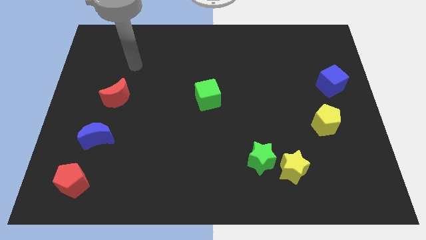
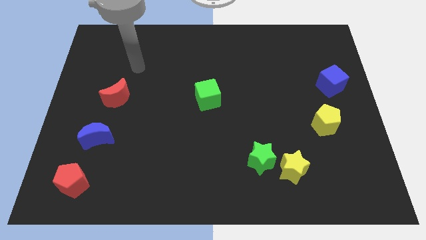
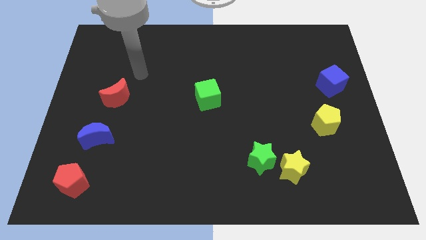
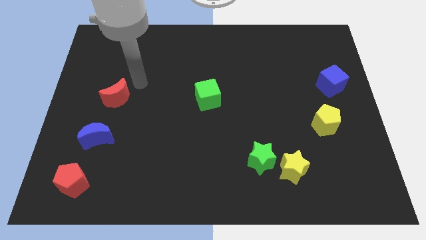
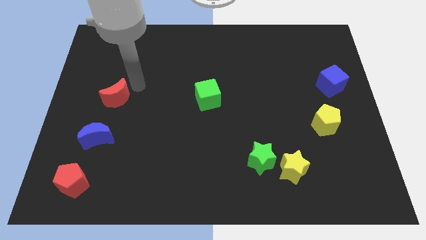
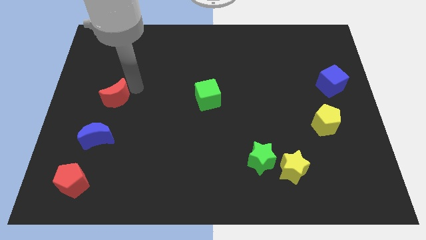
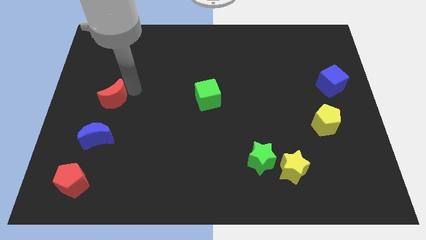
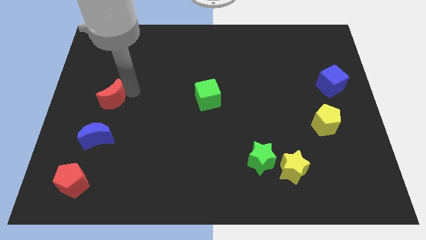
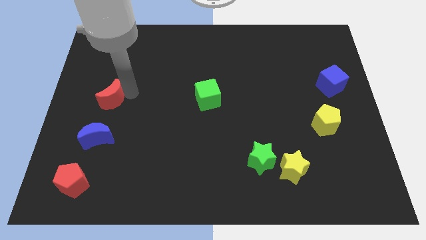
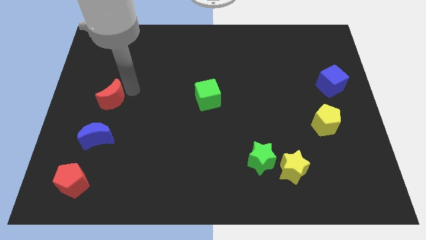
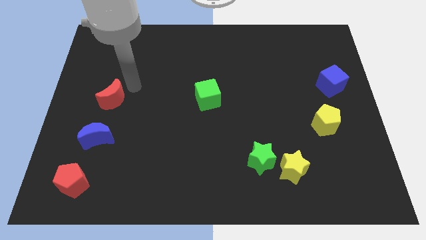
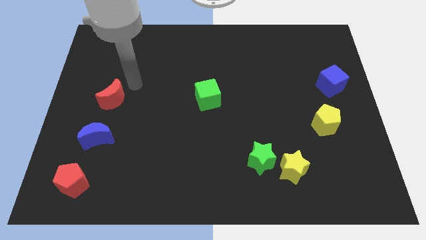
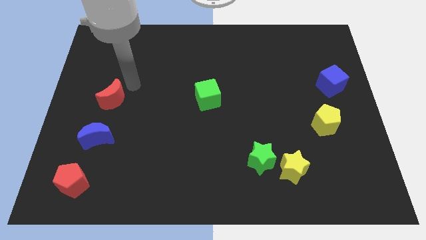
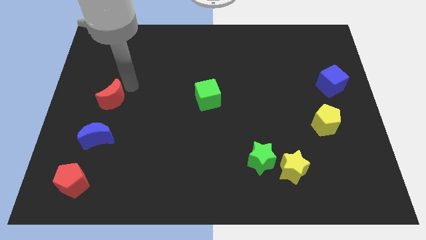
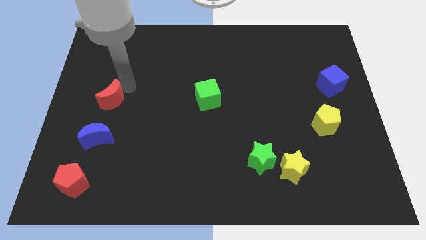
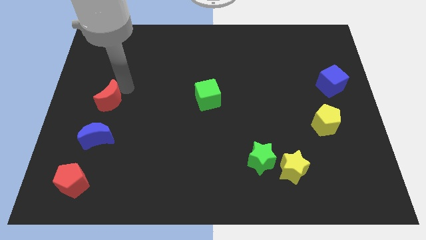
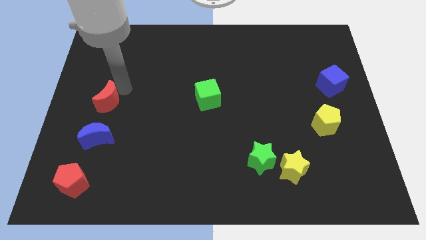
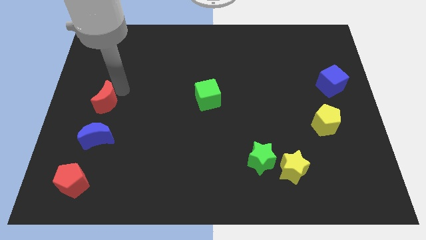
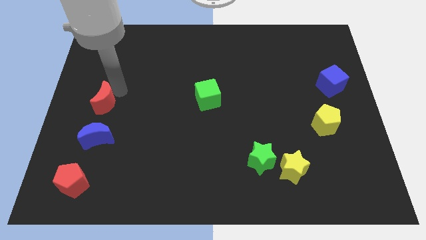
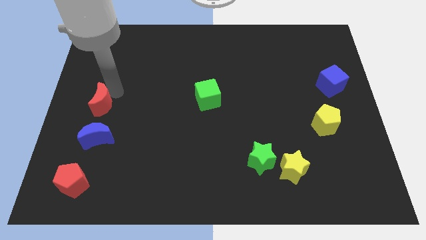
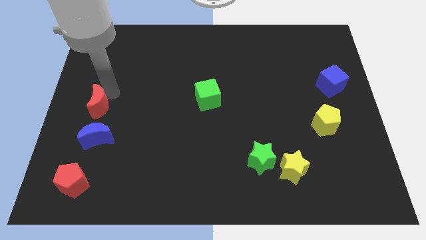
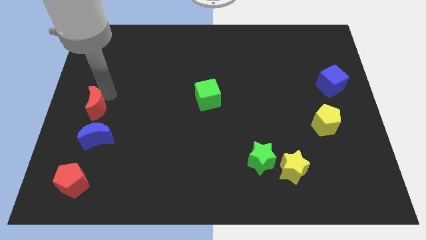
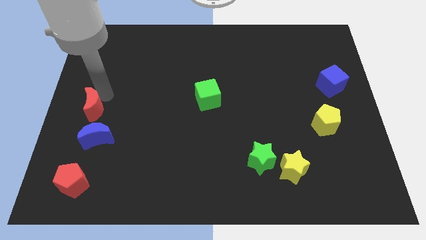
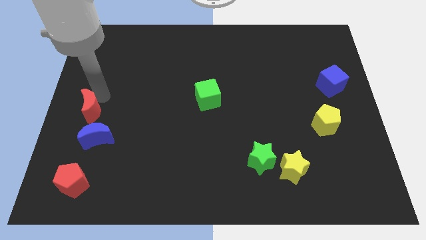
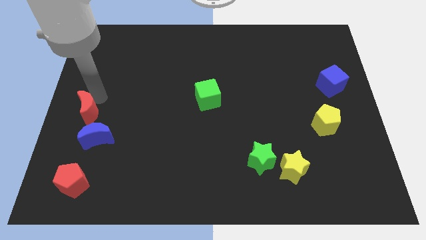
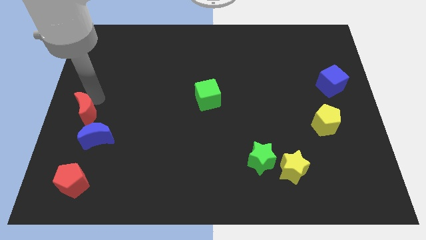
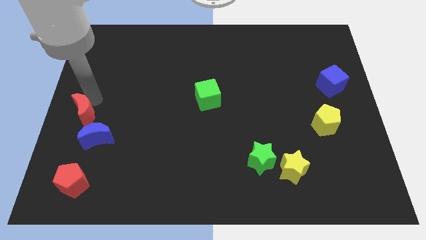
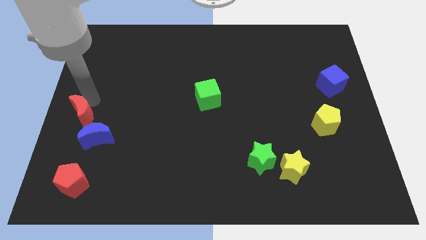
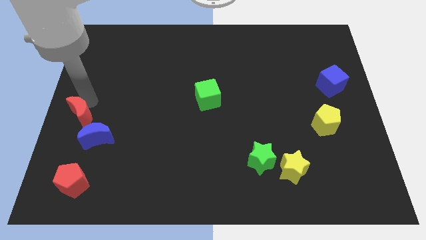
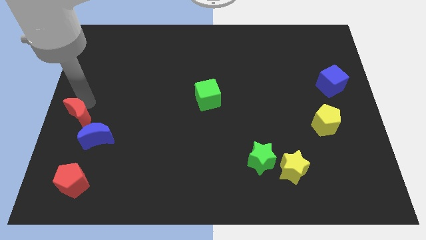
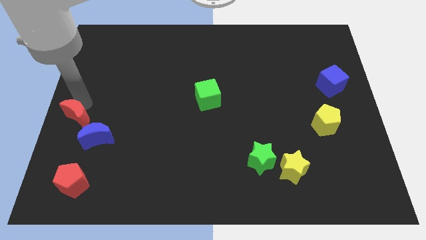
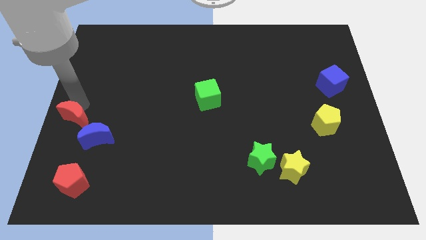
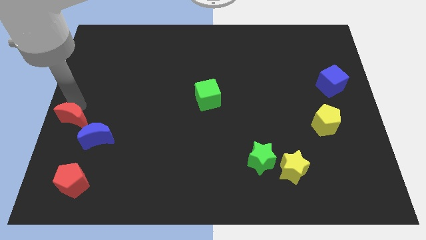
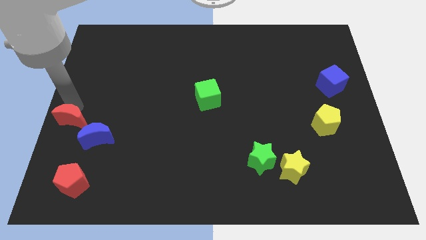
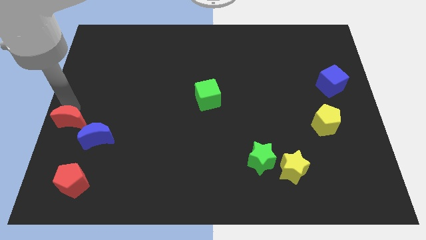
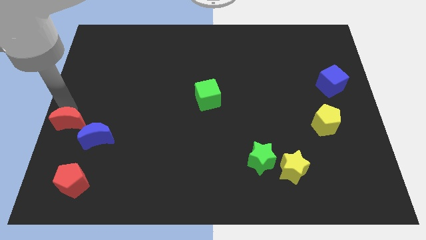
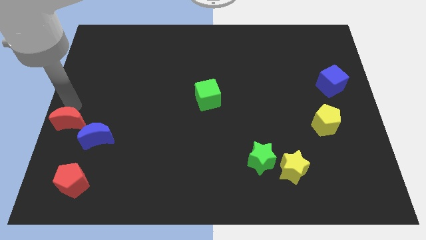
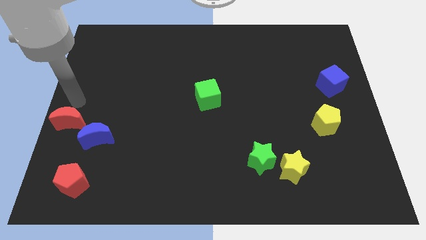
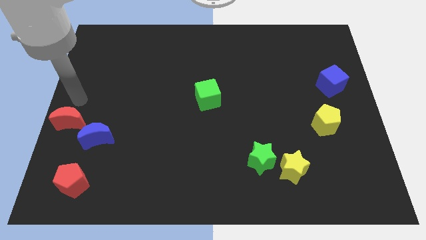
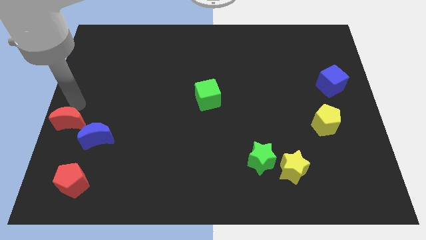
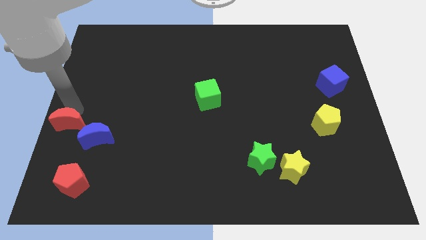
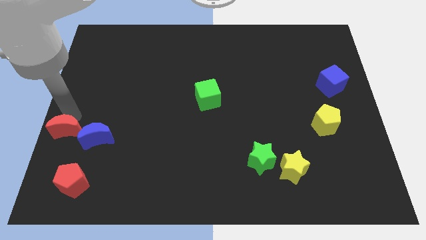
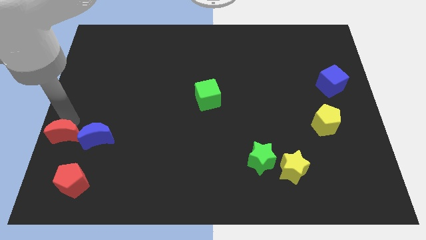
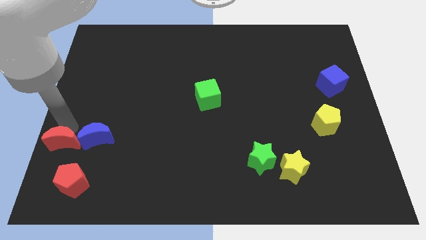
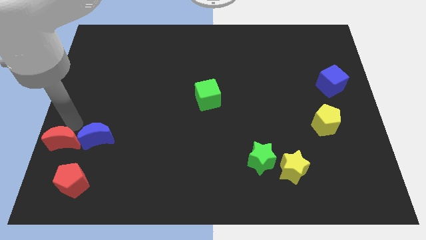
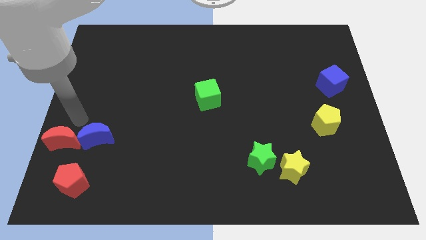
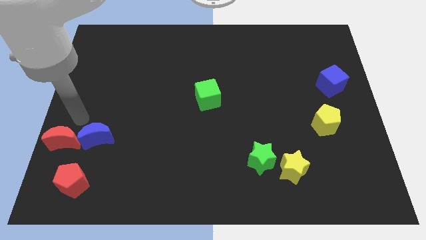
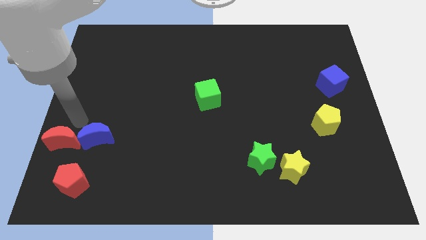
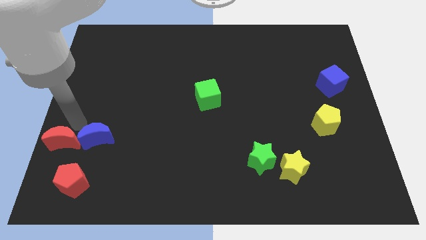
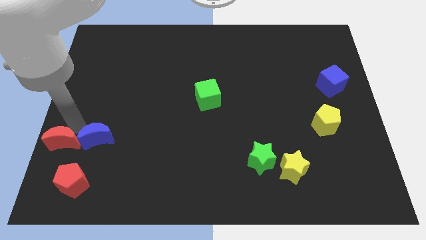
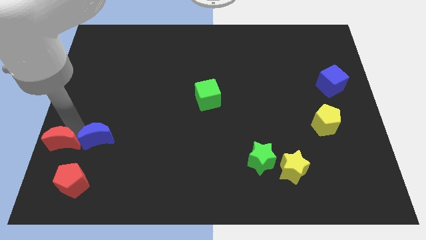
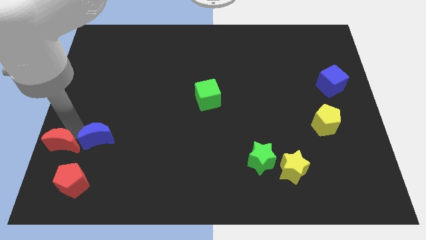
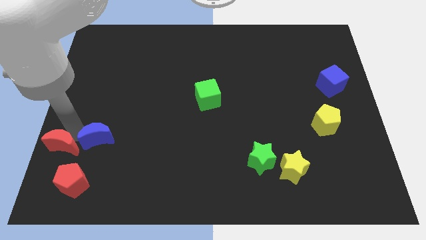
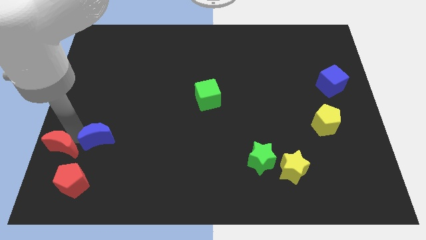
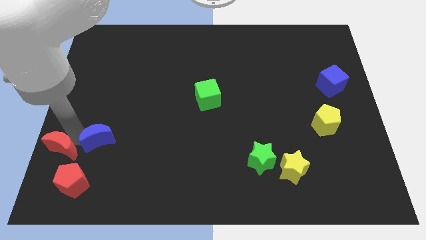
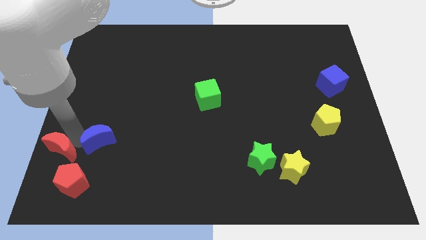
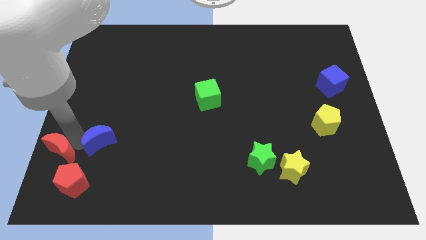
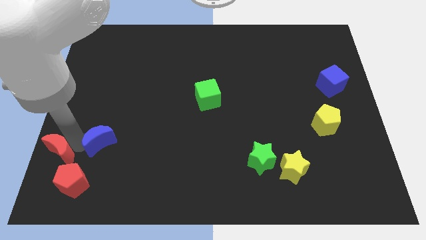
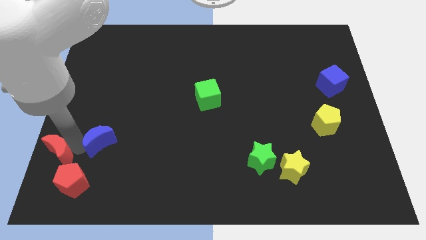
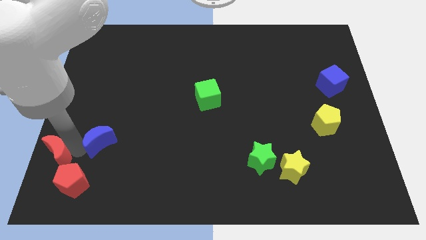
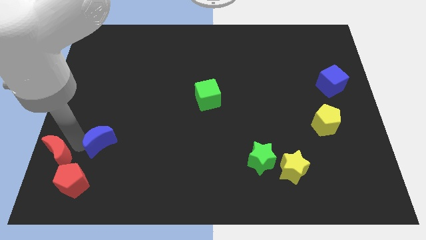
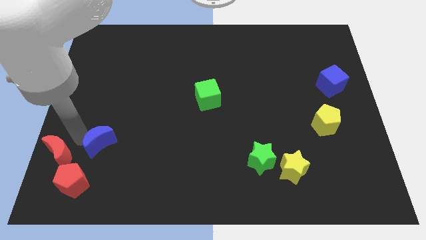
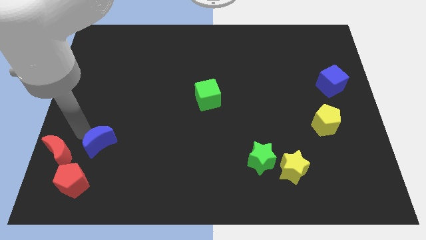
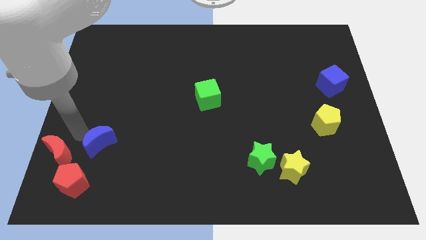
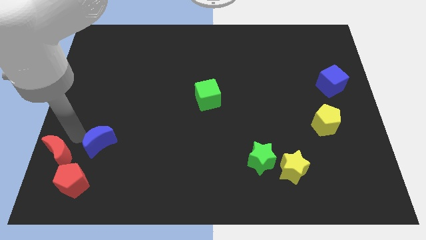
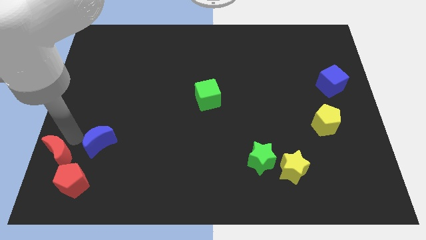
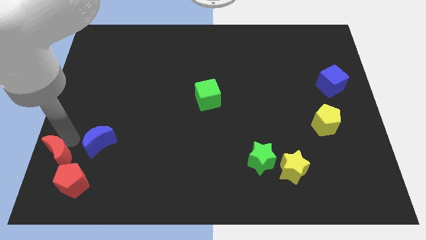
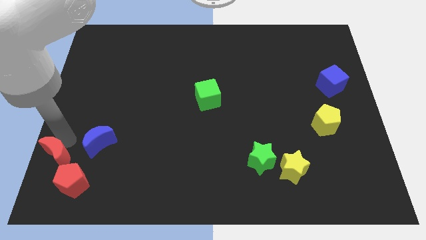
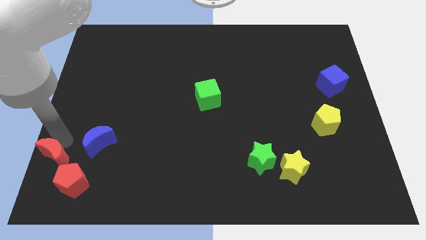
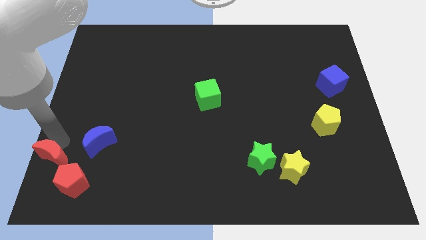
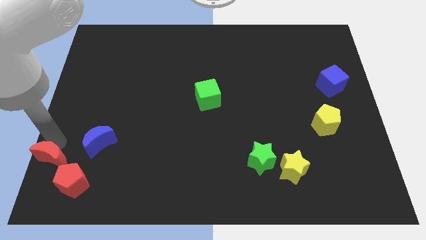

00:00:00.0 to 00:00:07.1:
move the red moon to the lower left corner
